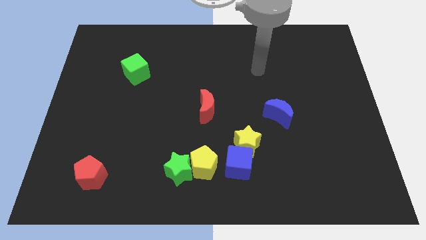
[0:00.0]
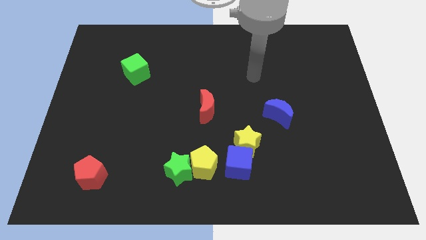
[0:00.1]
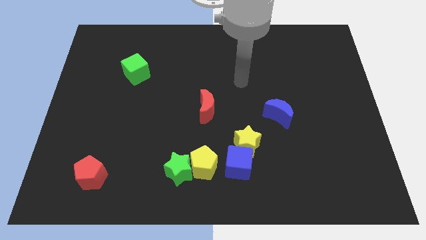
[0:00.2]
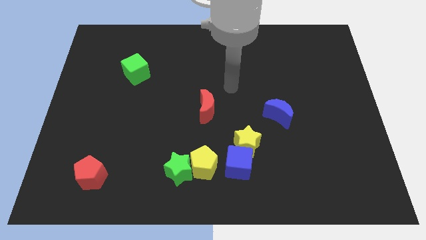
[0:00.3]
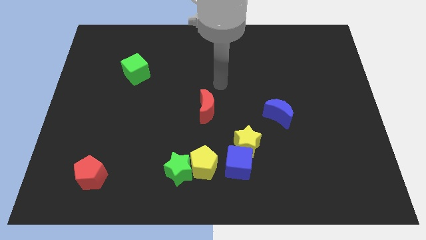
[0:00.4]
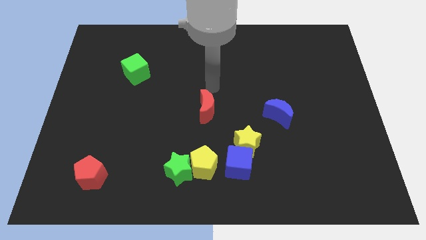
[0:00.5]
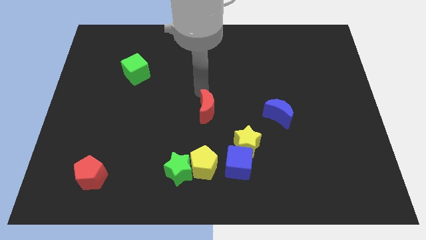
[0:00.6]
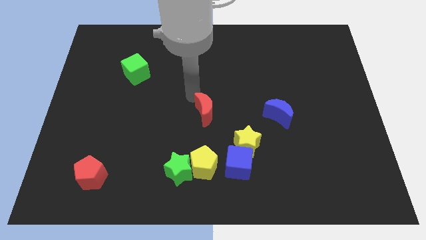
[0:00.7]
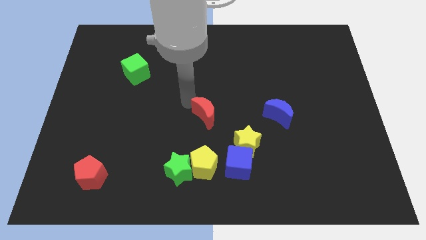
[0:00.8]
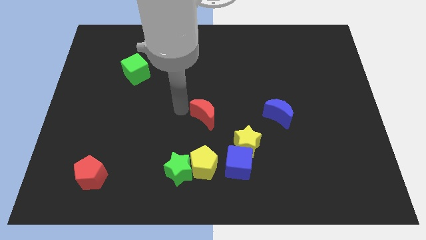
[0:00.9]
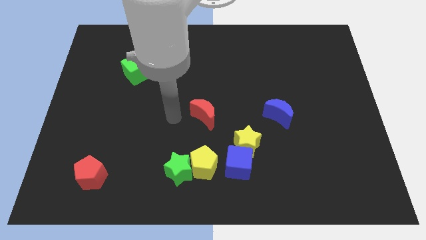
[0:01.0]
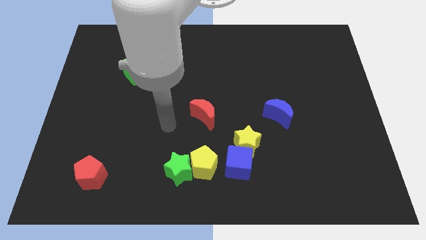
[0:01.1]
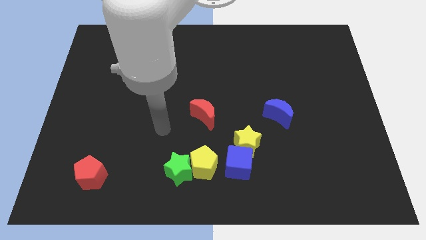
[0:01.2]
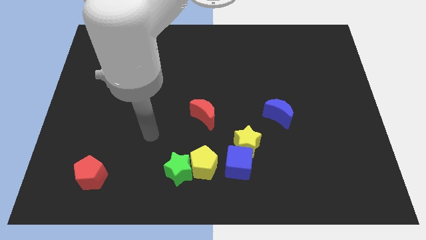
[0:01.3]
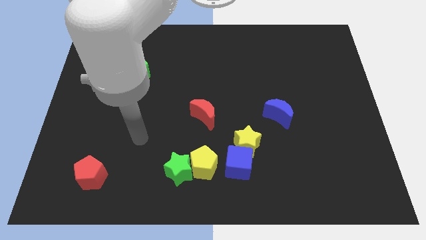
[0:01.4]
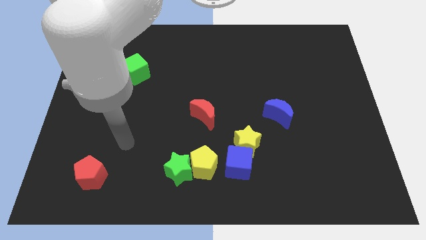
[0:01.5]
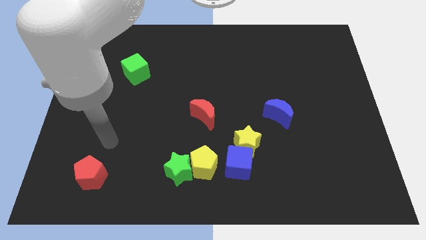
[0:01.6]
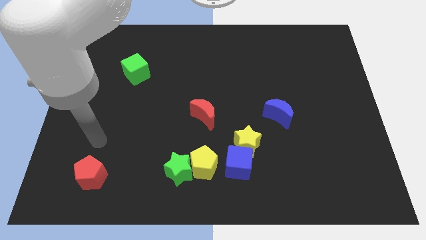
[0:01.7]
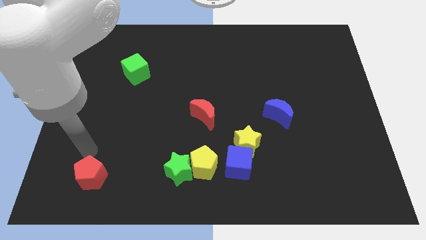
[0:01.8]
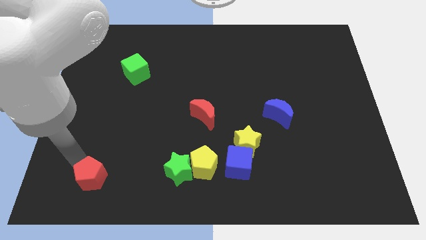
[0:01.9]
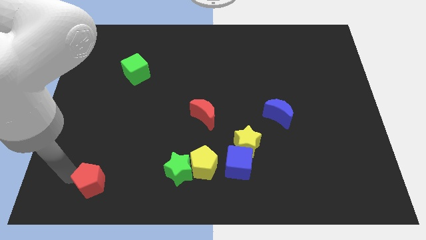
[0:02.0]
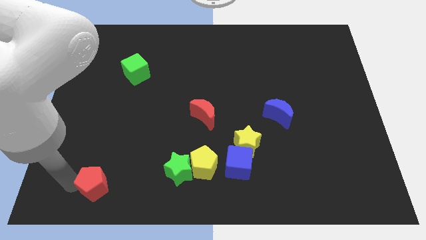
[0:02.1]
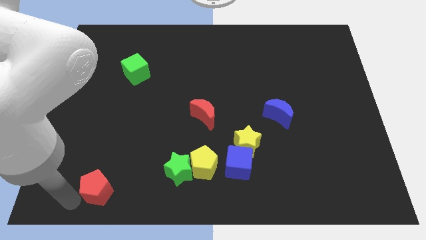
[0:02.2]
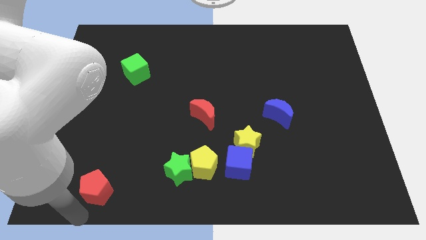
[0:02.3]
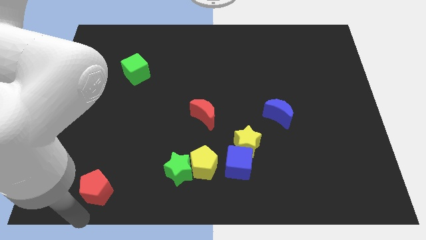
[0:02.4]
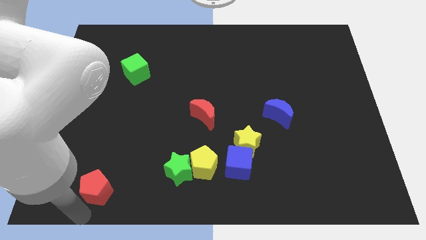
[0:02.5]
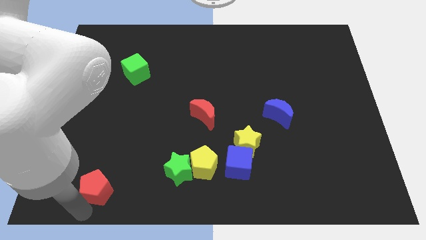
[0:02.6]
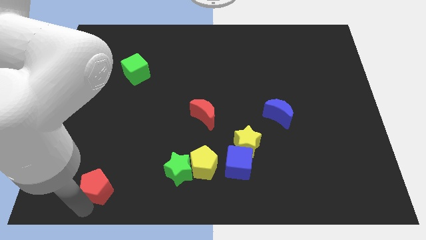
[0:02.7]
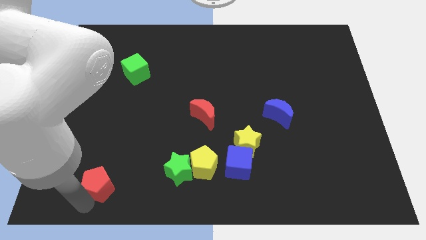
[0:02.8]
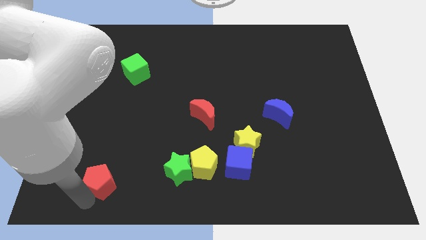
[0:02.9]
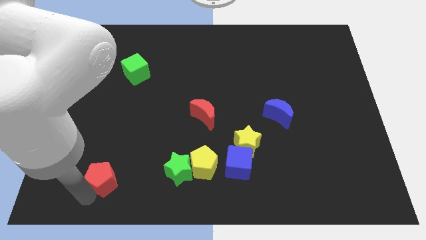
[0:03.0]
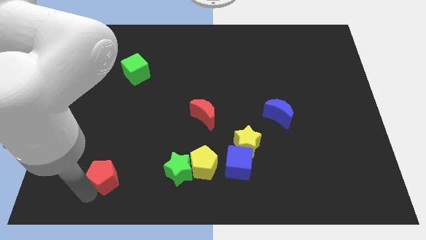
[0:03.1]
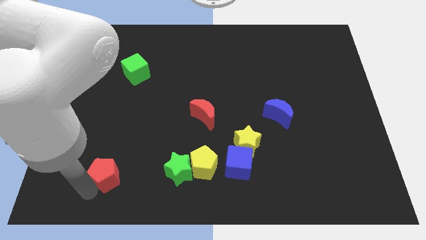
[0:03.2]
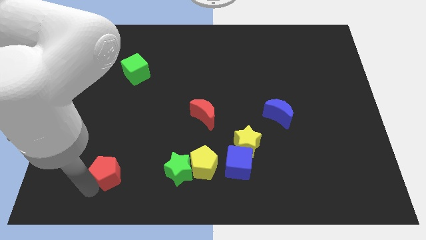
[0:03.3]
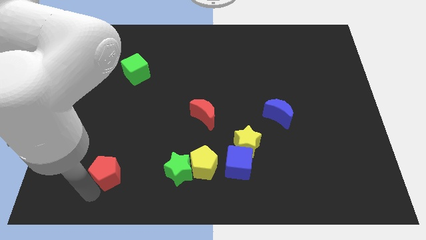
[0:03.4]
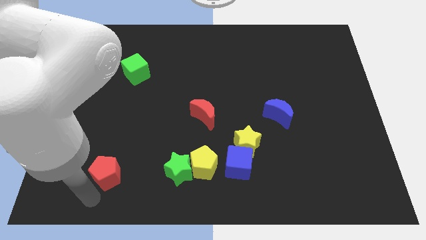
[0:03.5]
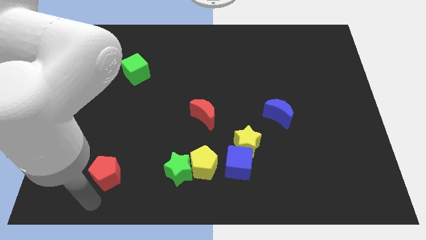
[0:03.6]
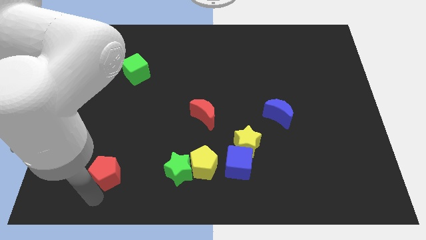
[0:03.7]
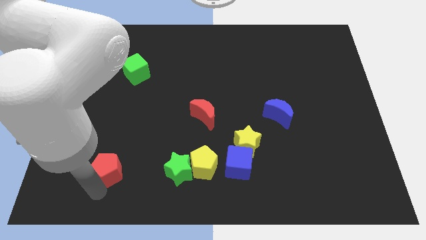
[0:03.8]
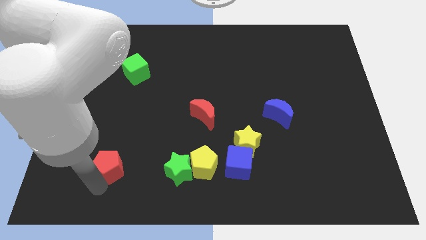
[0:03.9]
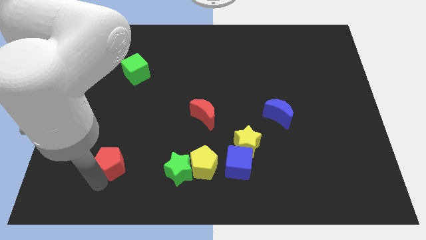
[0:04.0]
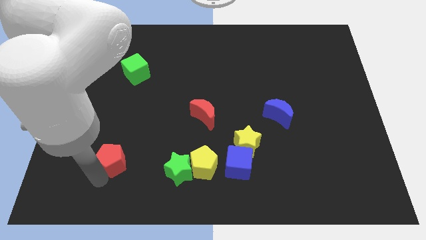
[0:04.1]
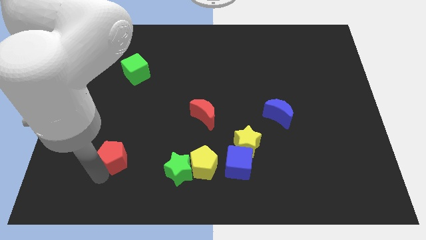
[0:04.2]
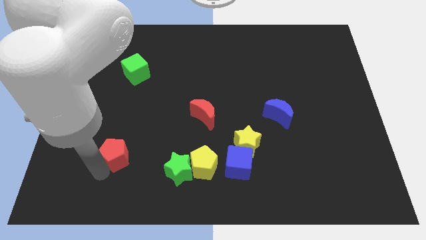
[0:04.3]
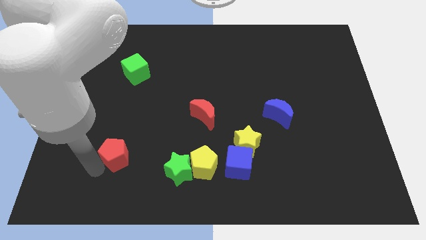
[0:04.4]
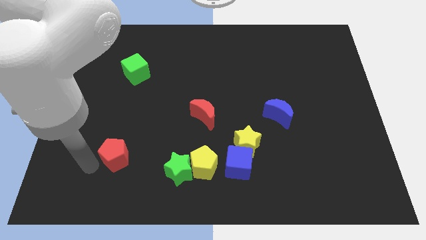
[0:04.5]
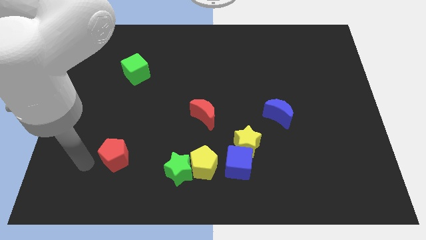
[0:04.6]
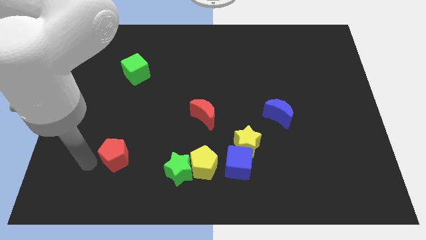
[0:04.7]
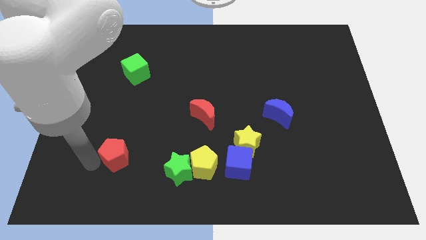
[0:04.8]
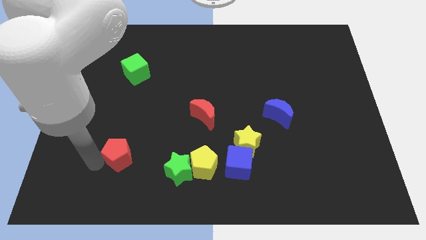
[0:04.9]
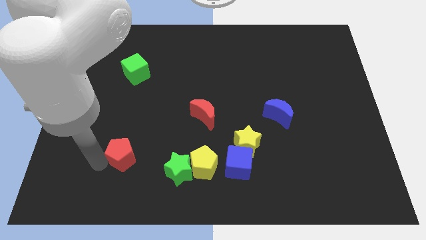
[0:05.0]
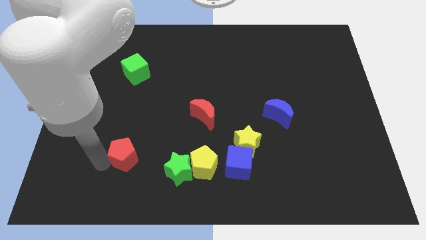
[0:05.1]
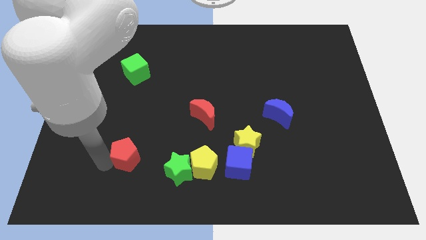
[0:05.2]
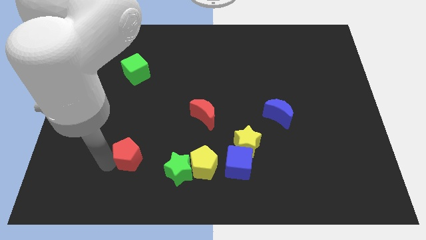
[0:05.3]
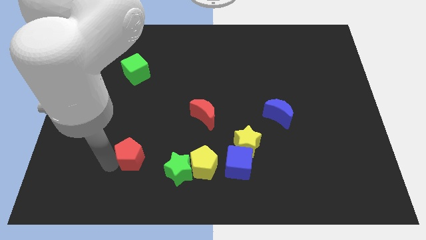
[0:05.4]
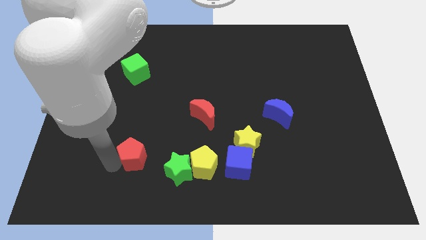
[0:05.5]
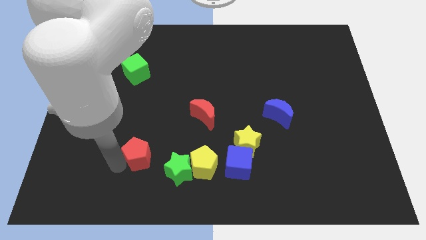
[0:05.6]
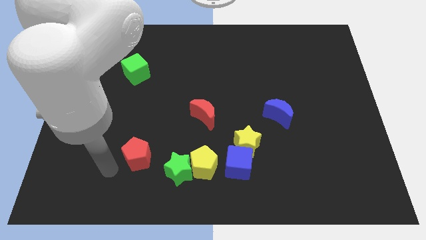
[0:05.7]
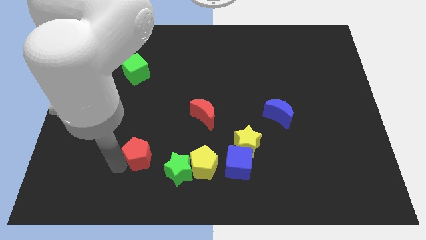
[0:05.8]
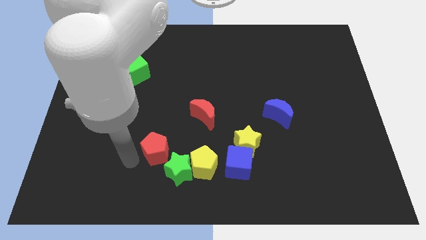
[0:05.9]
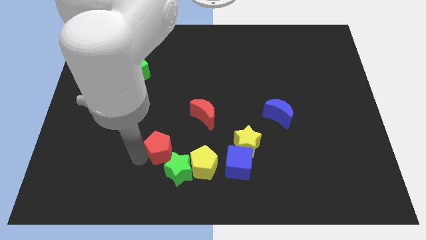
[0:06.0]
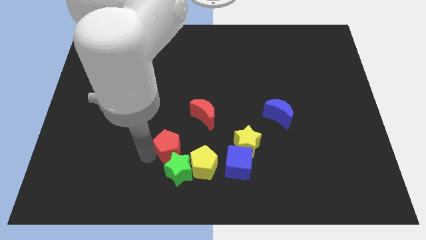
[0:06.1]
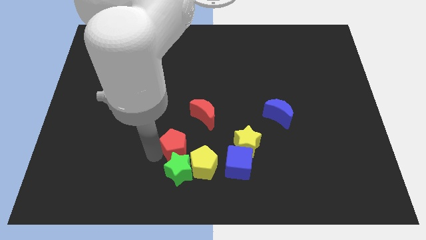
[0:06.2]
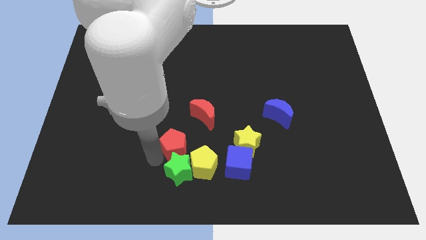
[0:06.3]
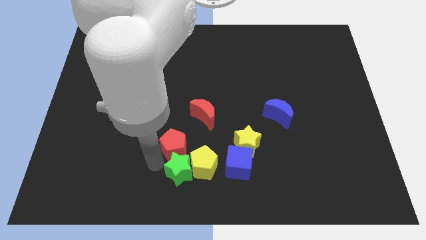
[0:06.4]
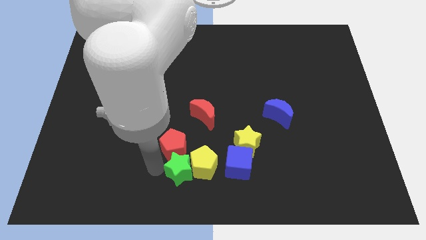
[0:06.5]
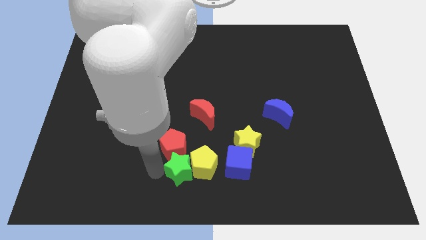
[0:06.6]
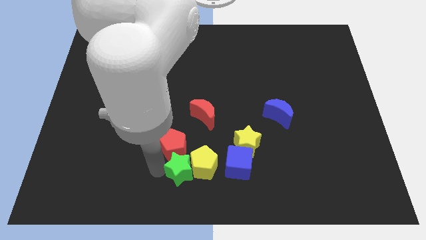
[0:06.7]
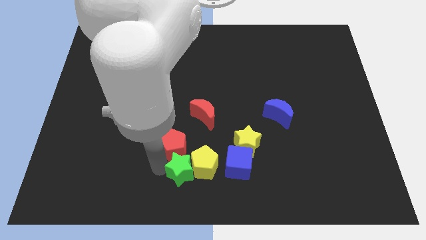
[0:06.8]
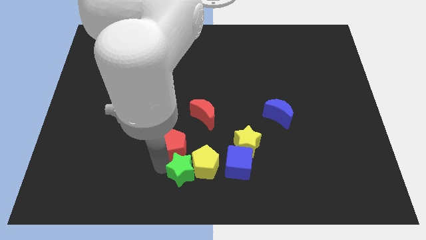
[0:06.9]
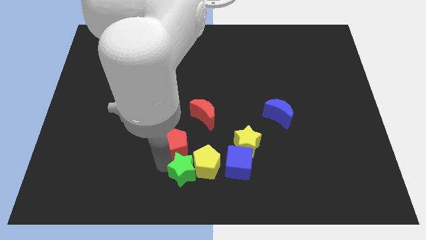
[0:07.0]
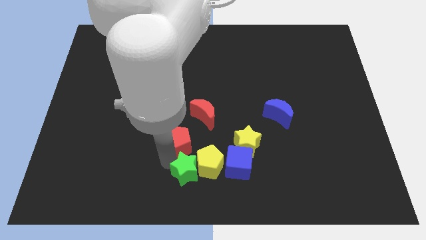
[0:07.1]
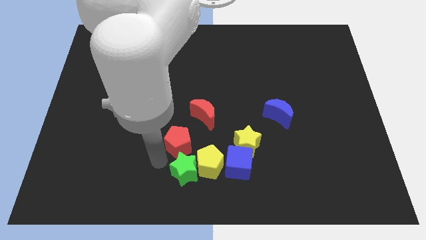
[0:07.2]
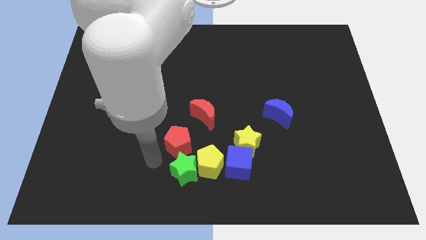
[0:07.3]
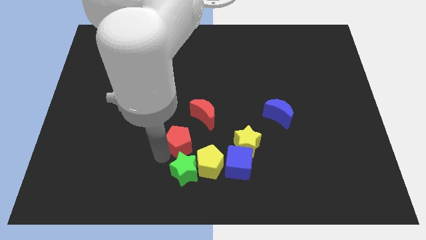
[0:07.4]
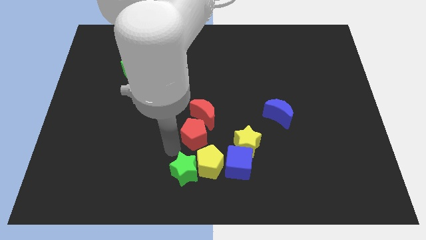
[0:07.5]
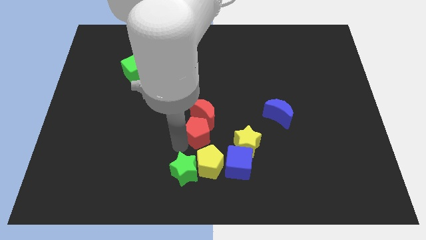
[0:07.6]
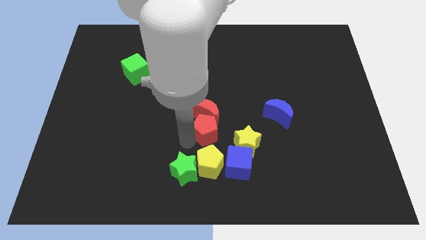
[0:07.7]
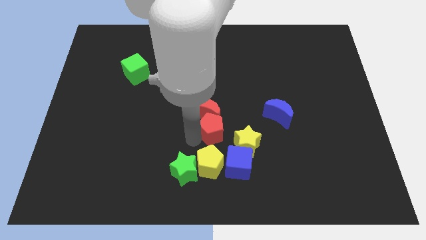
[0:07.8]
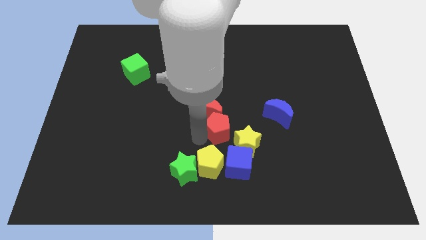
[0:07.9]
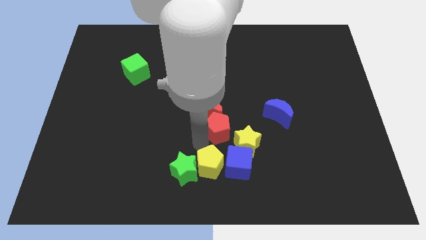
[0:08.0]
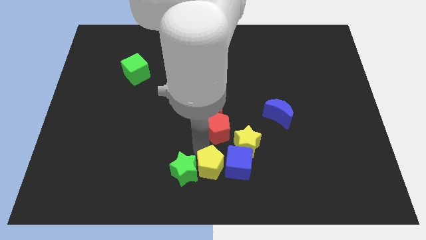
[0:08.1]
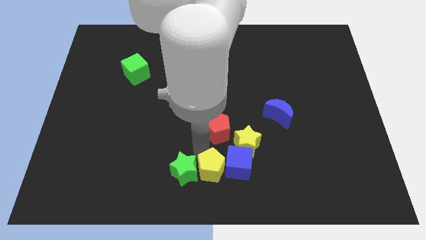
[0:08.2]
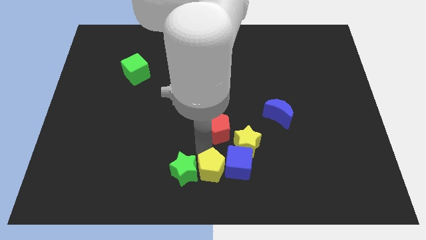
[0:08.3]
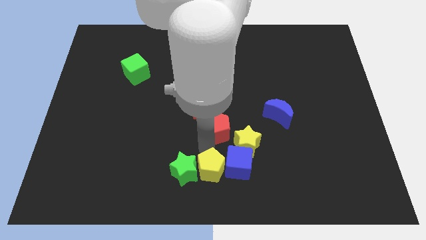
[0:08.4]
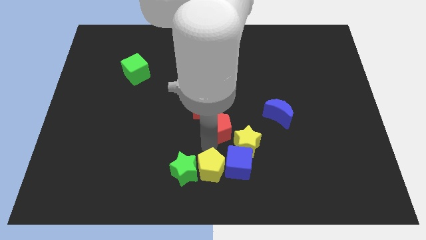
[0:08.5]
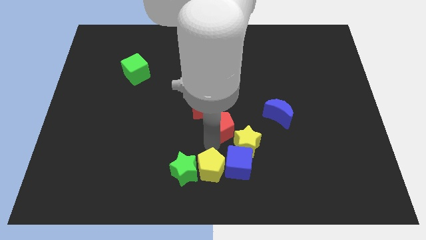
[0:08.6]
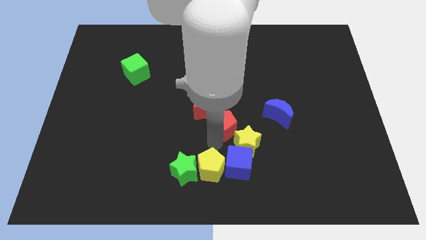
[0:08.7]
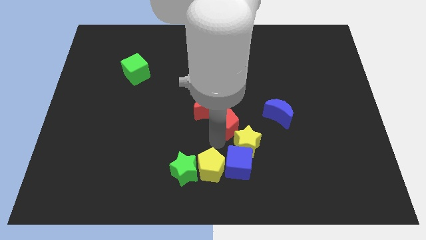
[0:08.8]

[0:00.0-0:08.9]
put the red pentagon to the top of the yellow star
